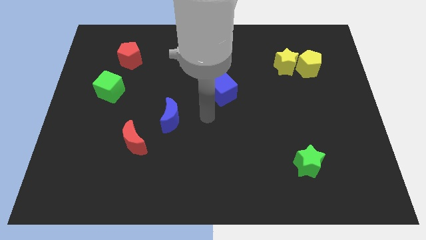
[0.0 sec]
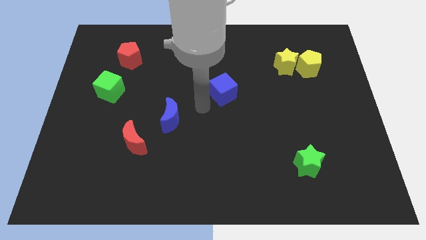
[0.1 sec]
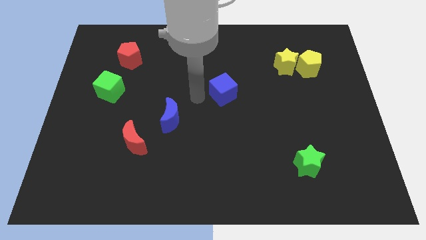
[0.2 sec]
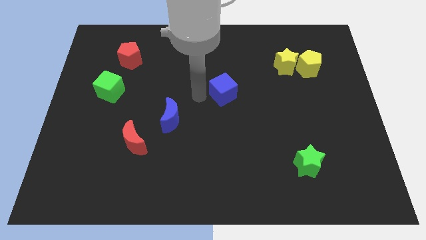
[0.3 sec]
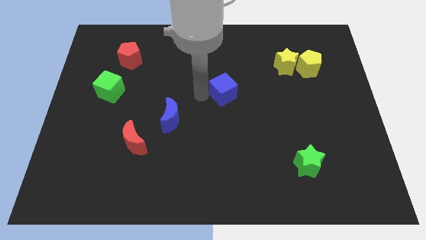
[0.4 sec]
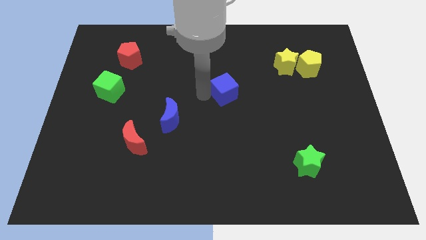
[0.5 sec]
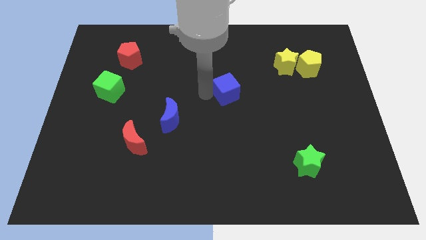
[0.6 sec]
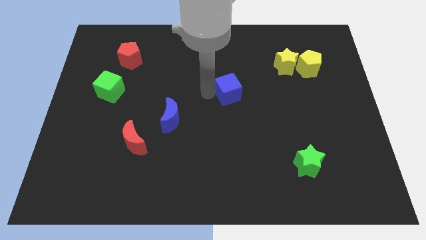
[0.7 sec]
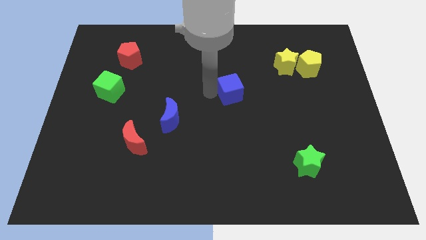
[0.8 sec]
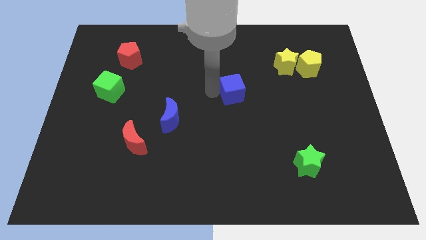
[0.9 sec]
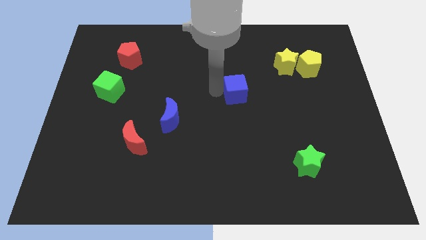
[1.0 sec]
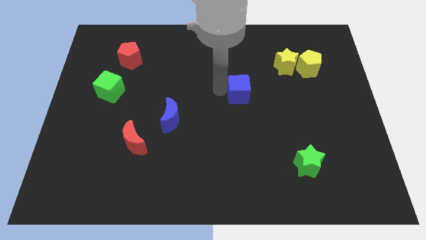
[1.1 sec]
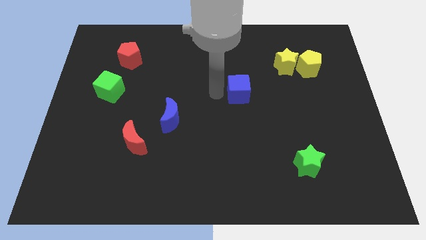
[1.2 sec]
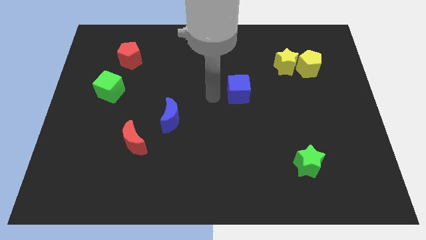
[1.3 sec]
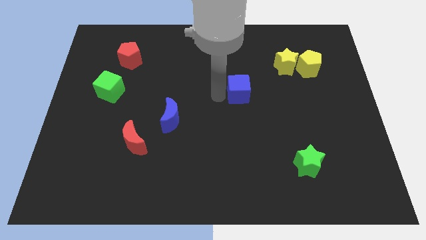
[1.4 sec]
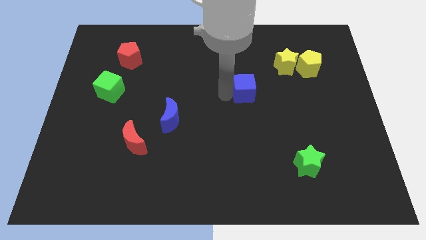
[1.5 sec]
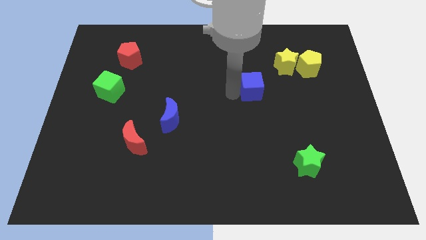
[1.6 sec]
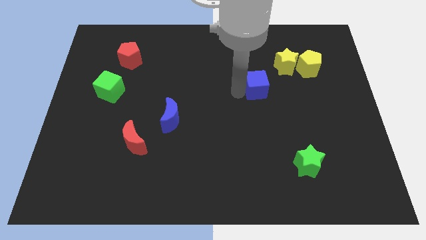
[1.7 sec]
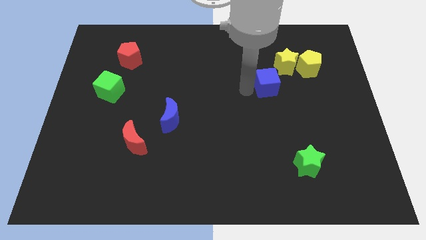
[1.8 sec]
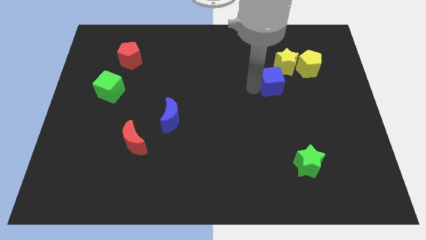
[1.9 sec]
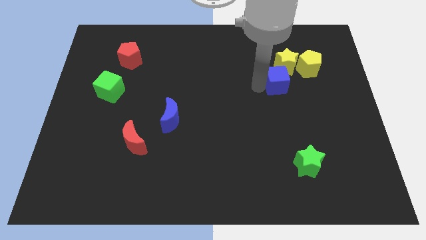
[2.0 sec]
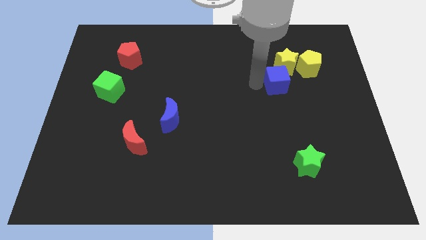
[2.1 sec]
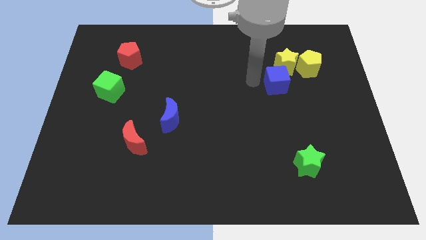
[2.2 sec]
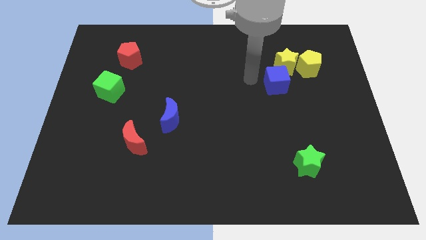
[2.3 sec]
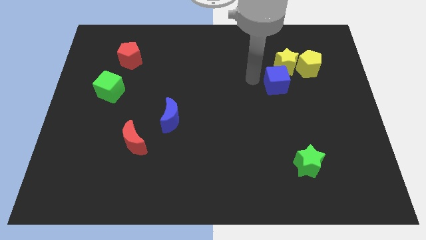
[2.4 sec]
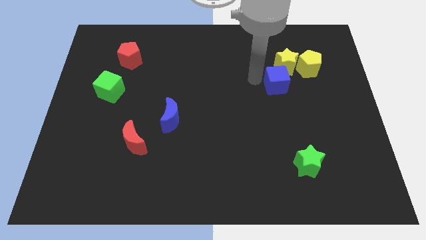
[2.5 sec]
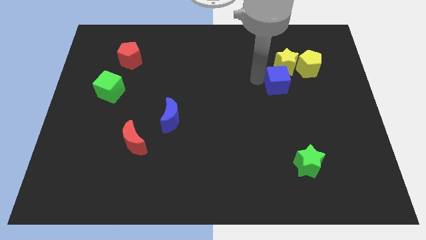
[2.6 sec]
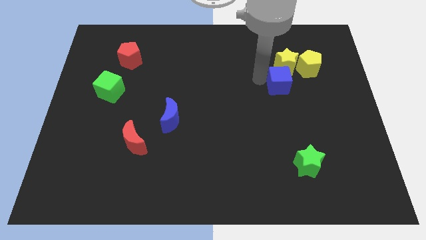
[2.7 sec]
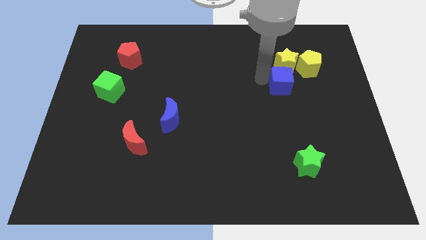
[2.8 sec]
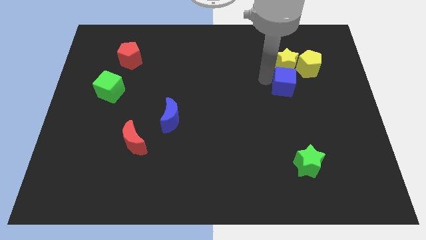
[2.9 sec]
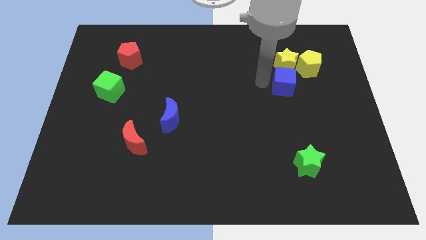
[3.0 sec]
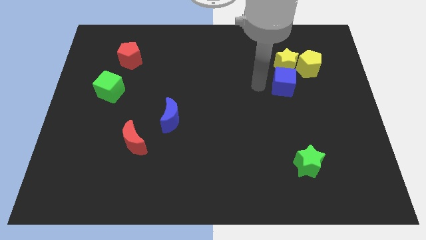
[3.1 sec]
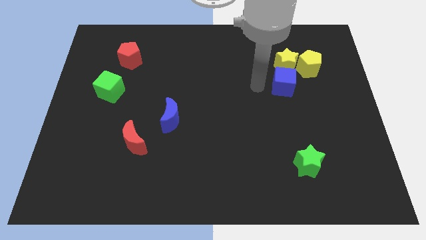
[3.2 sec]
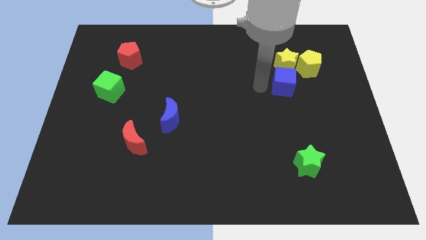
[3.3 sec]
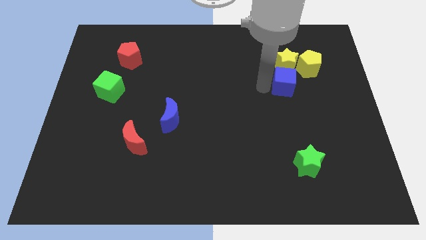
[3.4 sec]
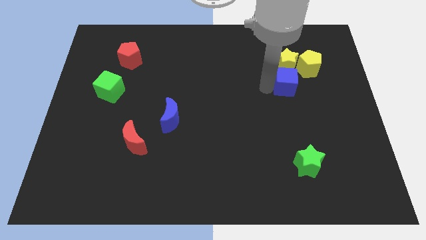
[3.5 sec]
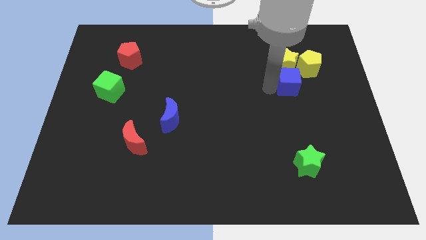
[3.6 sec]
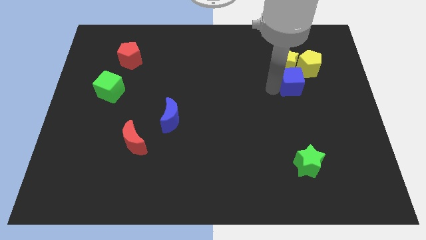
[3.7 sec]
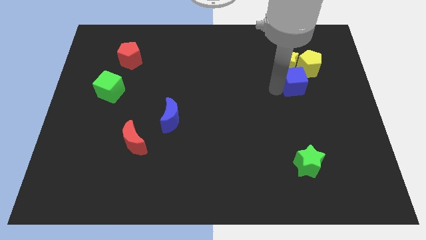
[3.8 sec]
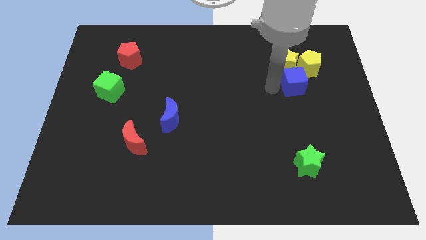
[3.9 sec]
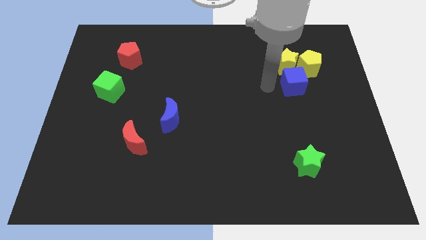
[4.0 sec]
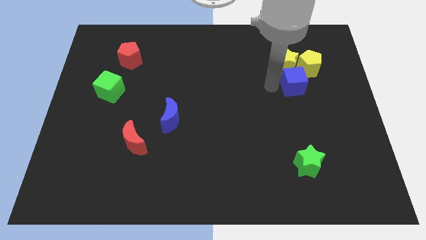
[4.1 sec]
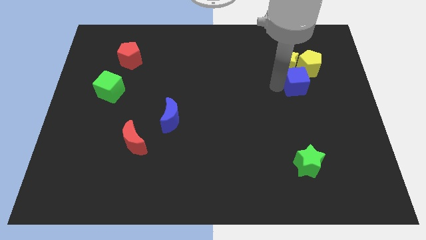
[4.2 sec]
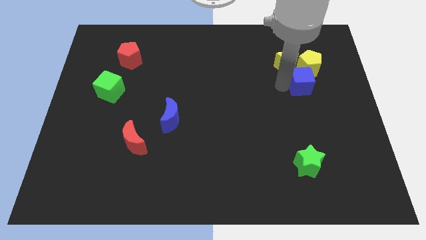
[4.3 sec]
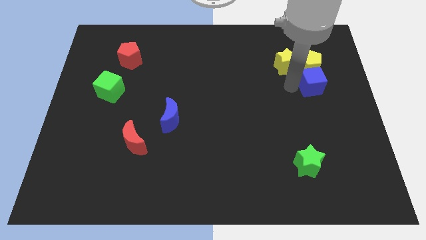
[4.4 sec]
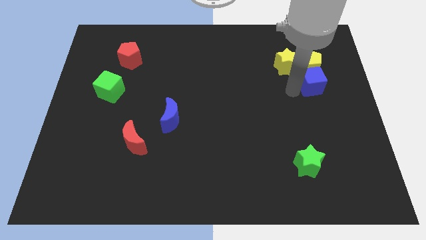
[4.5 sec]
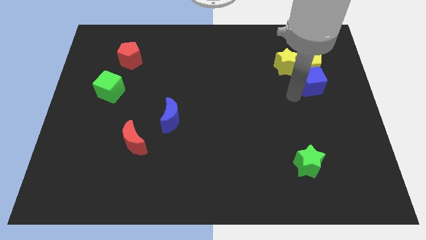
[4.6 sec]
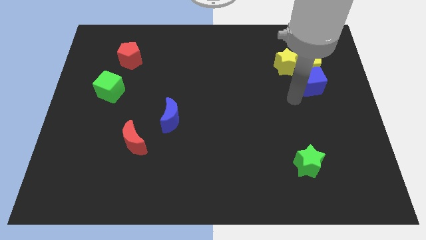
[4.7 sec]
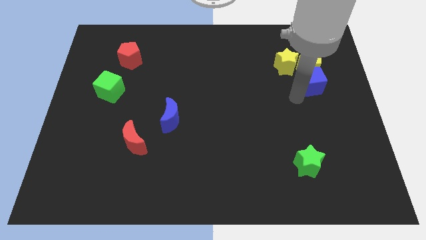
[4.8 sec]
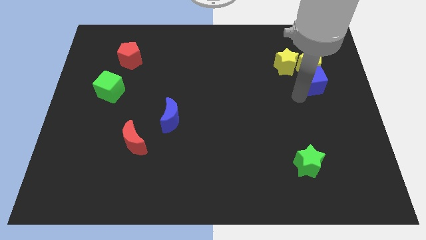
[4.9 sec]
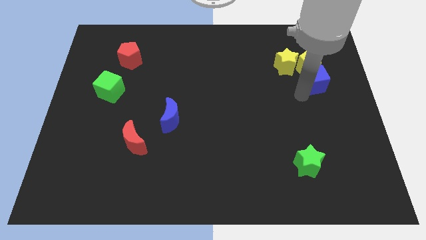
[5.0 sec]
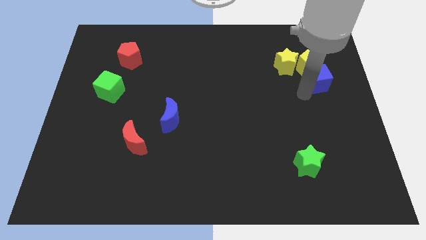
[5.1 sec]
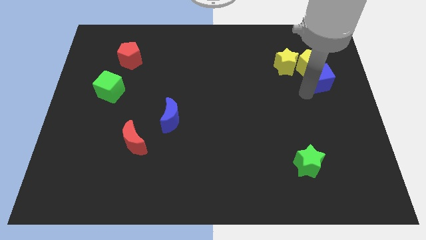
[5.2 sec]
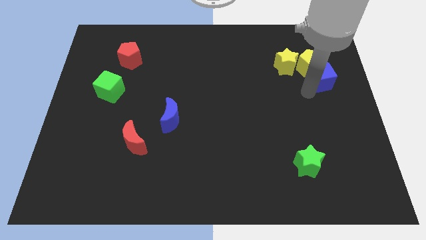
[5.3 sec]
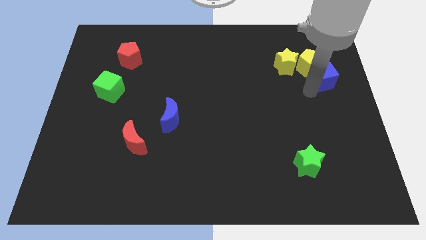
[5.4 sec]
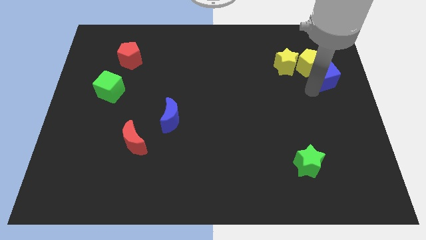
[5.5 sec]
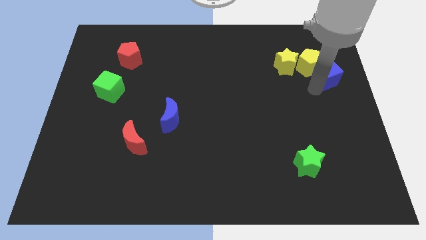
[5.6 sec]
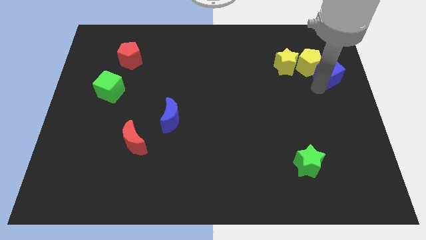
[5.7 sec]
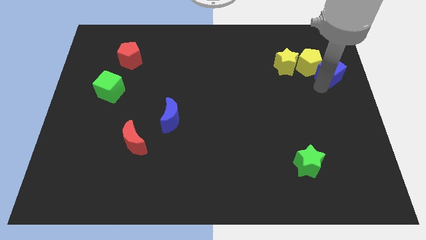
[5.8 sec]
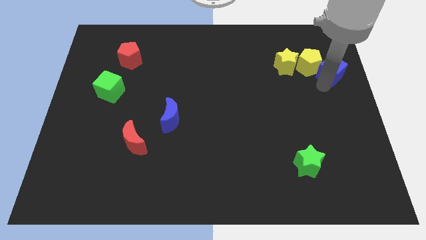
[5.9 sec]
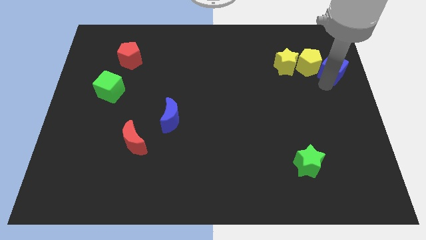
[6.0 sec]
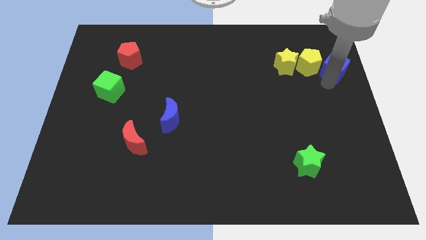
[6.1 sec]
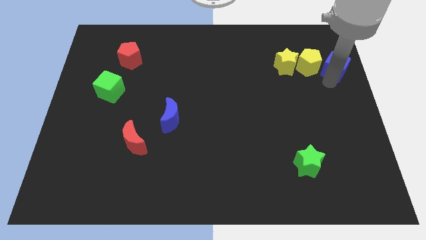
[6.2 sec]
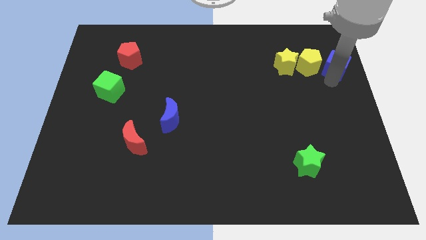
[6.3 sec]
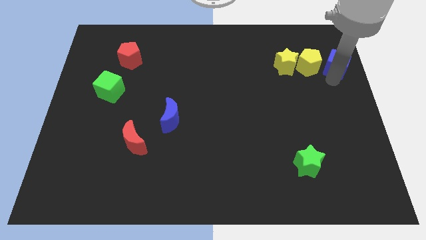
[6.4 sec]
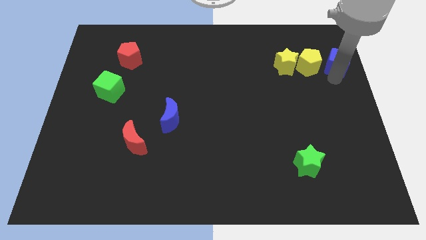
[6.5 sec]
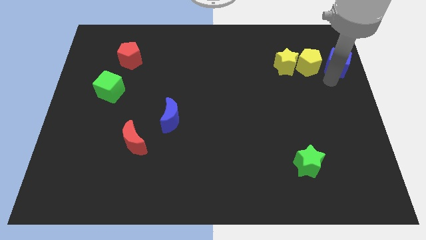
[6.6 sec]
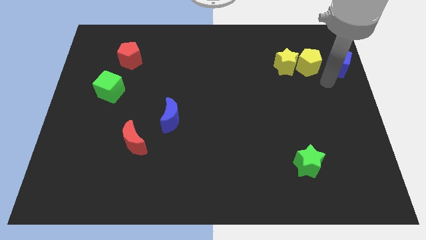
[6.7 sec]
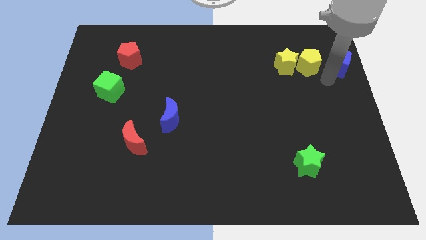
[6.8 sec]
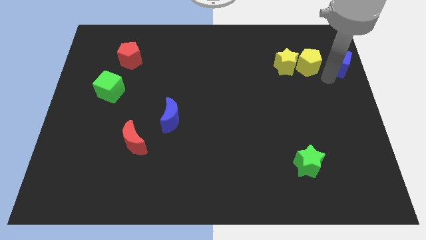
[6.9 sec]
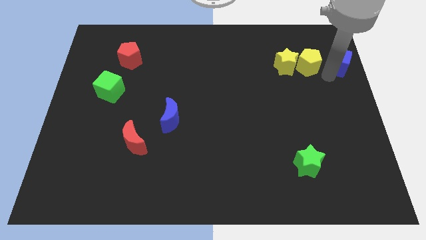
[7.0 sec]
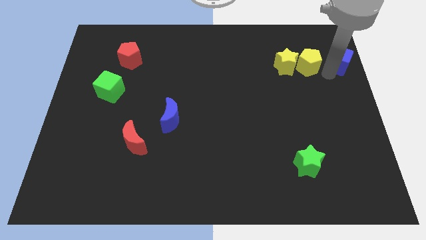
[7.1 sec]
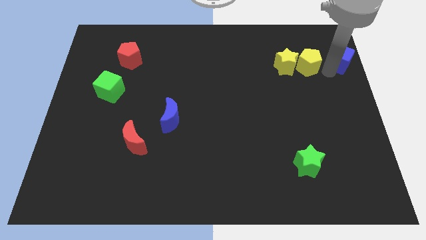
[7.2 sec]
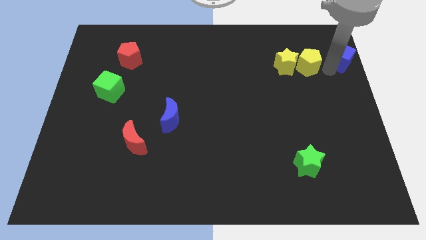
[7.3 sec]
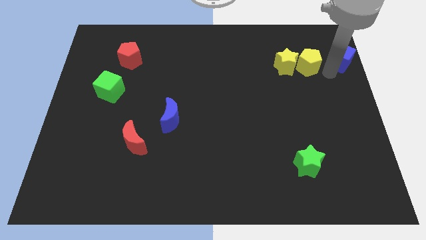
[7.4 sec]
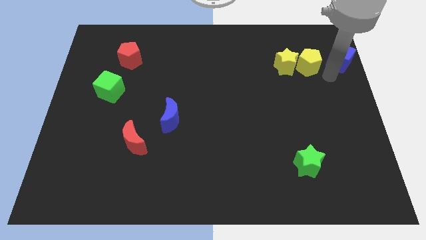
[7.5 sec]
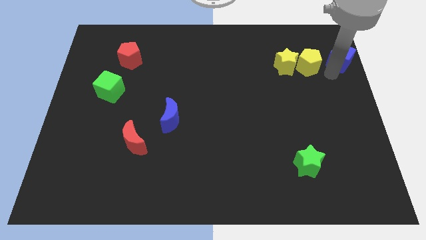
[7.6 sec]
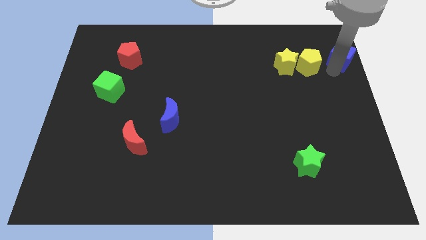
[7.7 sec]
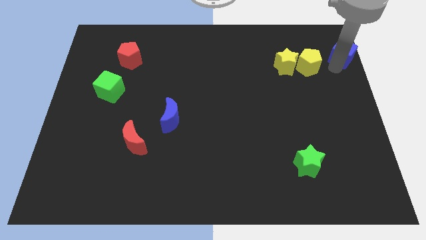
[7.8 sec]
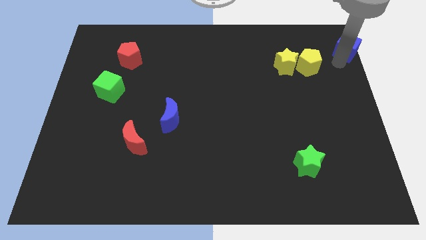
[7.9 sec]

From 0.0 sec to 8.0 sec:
move the blue cube to the top right of the board
